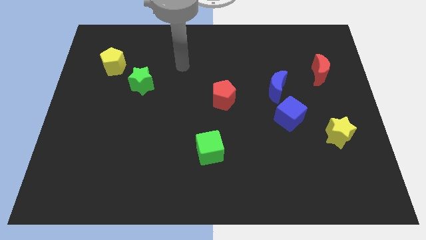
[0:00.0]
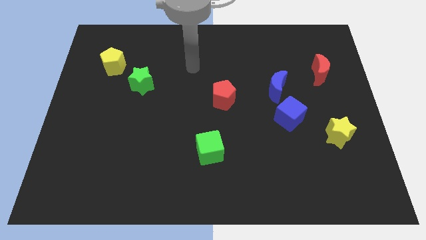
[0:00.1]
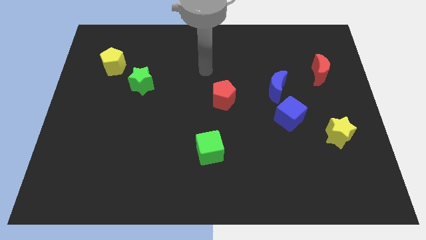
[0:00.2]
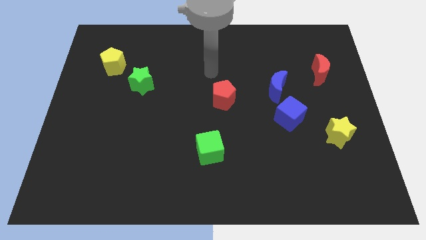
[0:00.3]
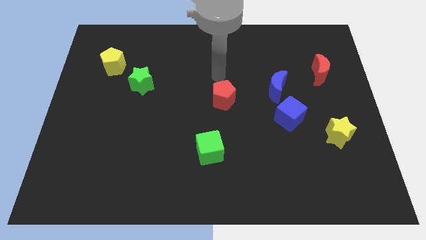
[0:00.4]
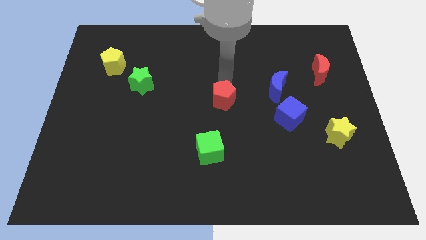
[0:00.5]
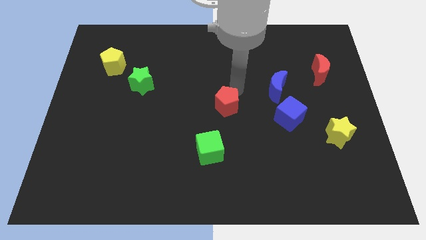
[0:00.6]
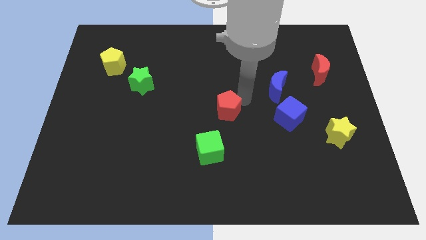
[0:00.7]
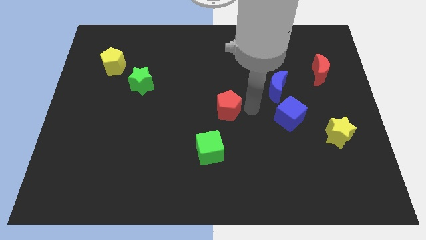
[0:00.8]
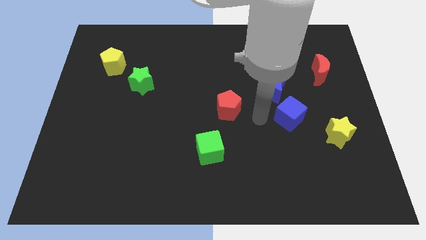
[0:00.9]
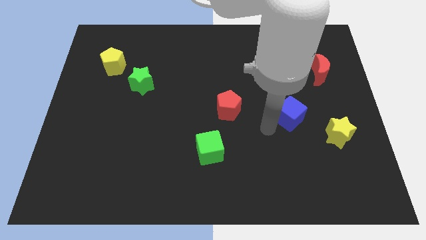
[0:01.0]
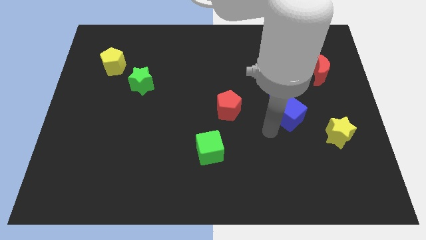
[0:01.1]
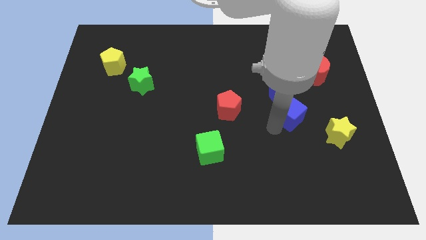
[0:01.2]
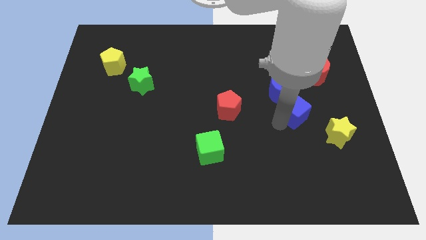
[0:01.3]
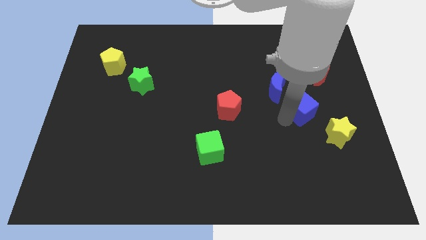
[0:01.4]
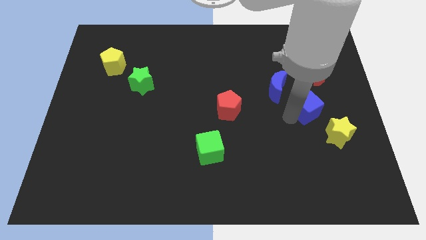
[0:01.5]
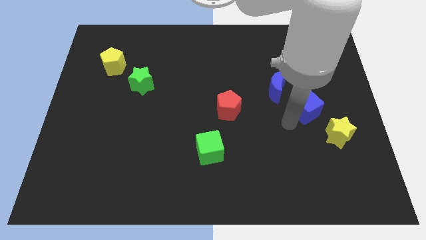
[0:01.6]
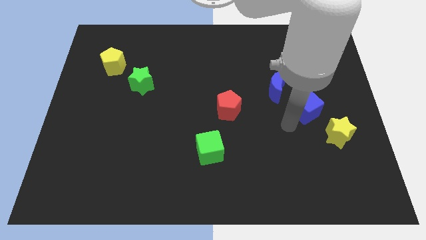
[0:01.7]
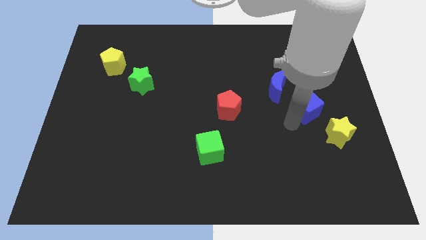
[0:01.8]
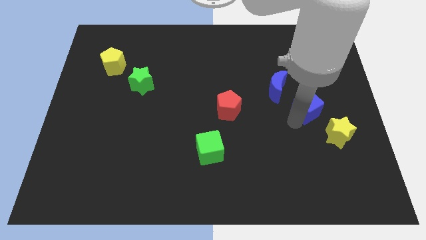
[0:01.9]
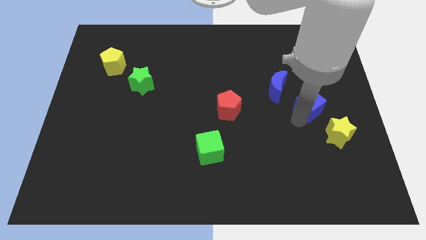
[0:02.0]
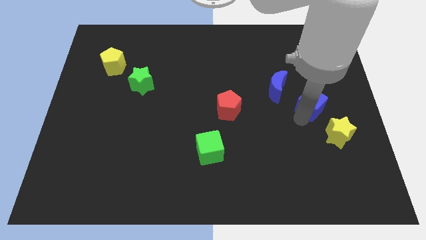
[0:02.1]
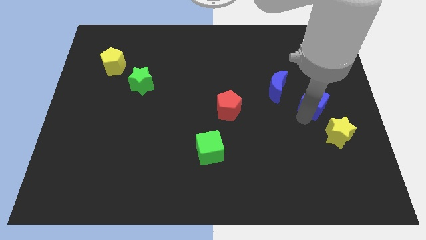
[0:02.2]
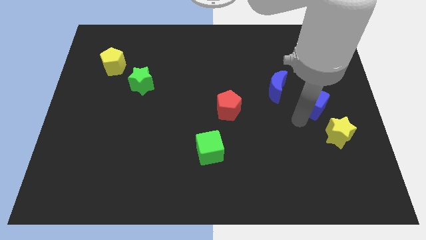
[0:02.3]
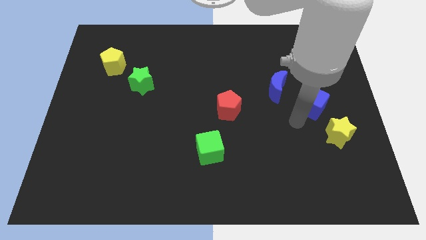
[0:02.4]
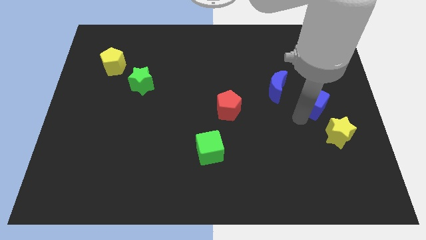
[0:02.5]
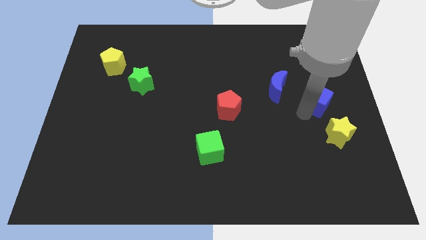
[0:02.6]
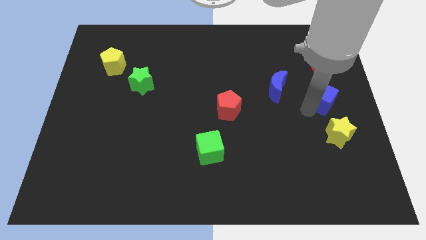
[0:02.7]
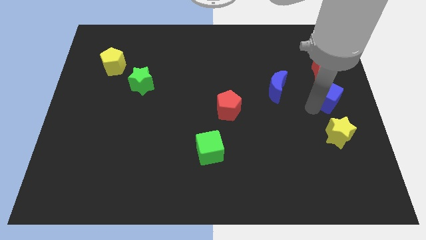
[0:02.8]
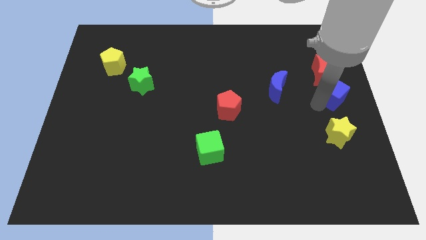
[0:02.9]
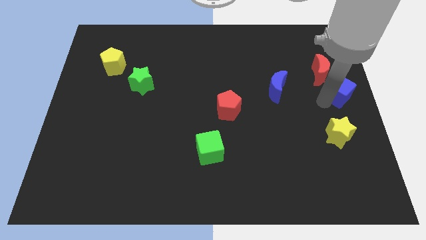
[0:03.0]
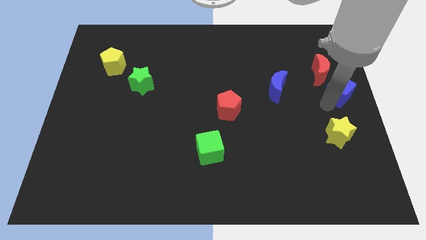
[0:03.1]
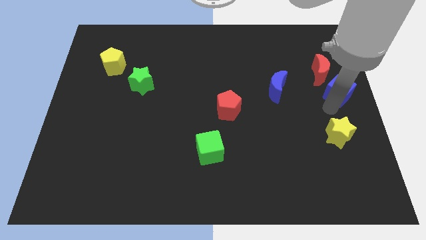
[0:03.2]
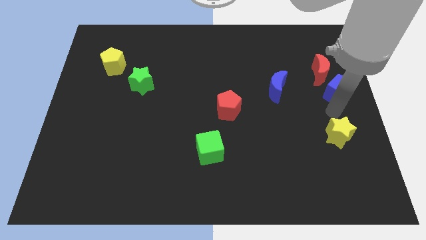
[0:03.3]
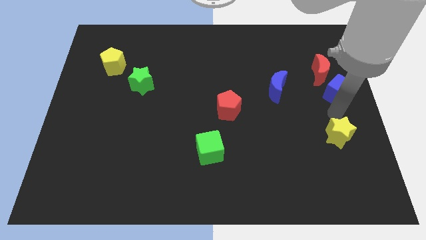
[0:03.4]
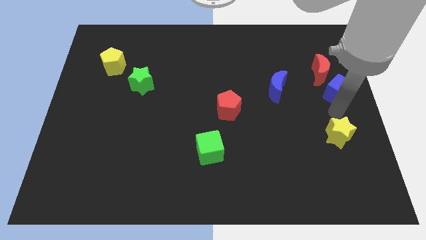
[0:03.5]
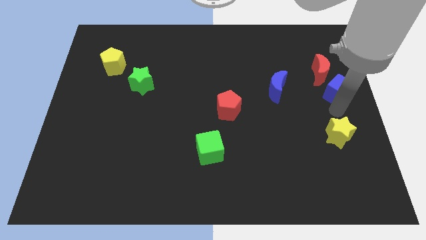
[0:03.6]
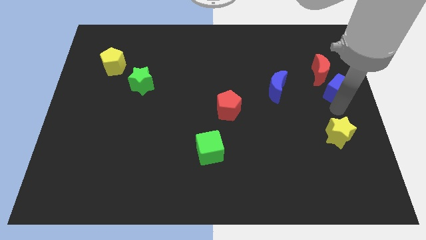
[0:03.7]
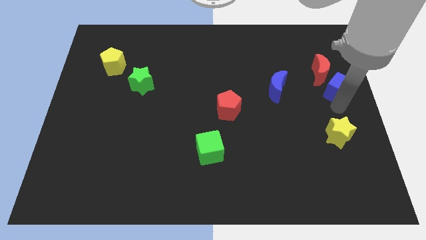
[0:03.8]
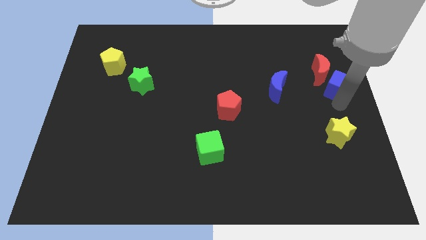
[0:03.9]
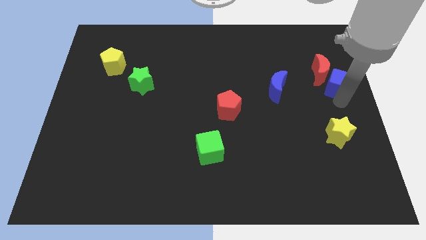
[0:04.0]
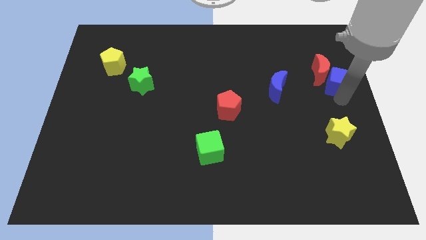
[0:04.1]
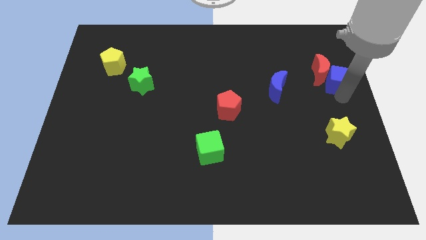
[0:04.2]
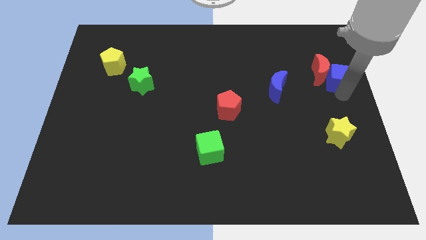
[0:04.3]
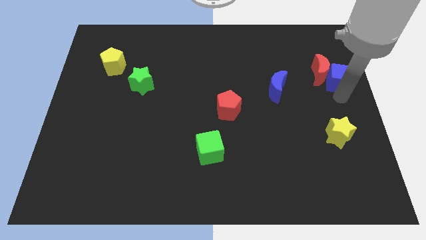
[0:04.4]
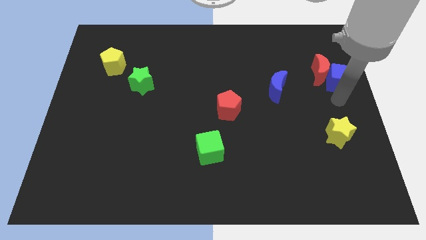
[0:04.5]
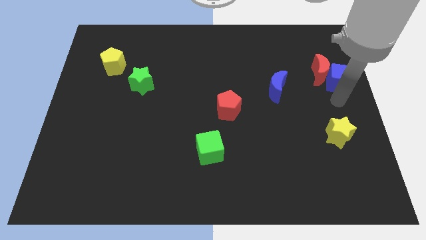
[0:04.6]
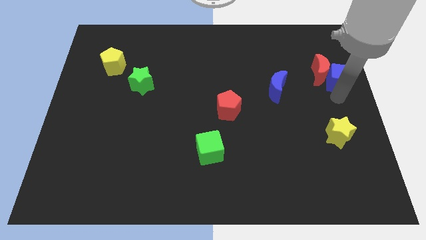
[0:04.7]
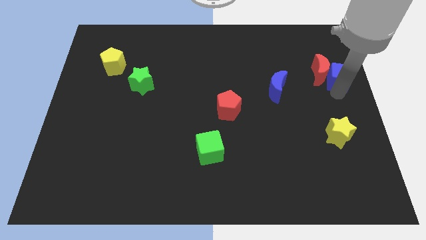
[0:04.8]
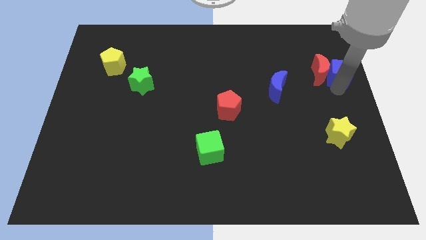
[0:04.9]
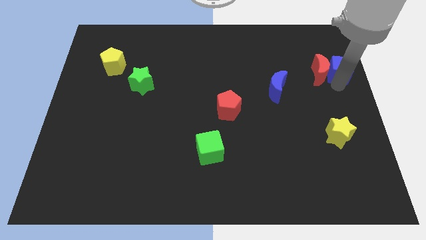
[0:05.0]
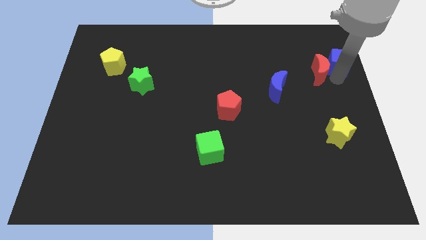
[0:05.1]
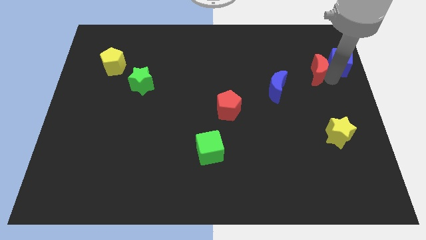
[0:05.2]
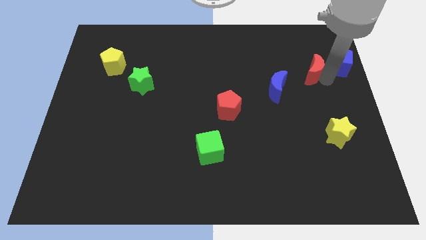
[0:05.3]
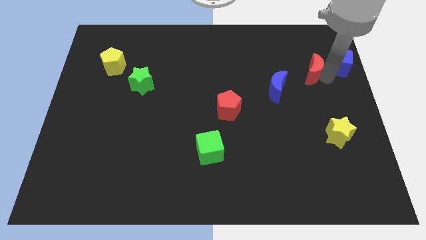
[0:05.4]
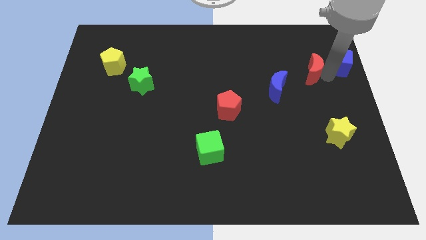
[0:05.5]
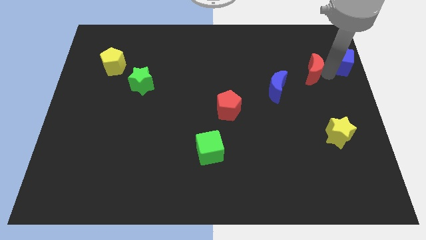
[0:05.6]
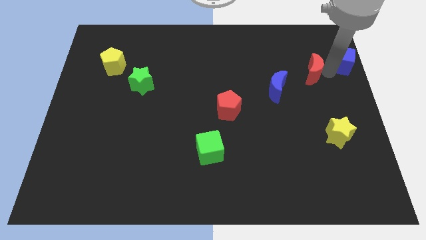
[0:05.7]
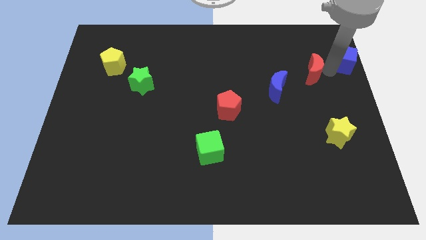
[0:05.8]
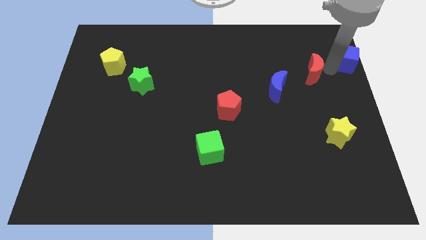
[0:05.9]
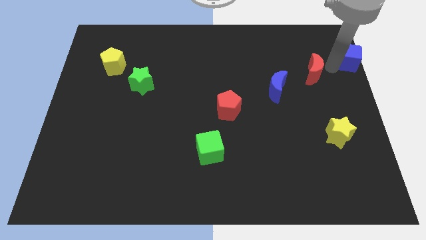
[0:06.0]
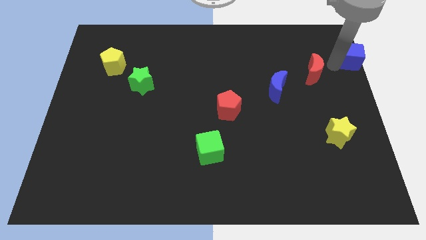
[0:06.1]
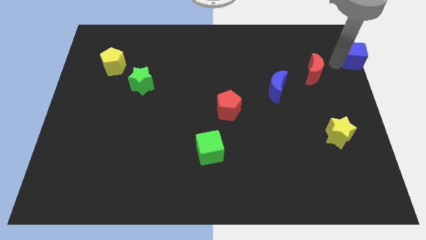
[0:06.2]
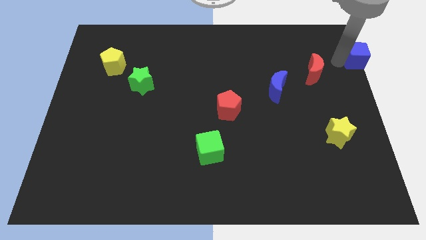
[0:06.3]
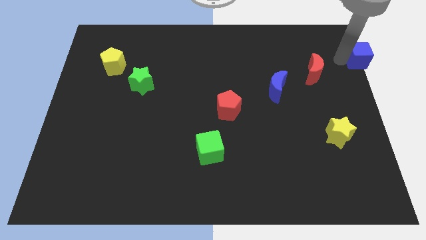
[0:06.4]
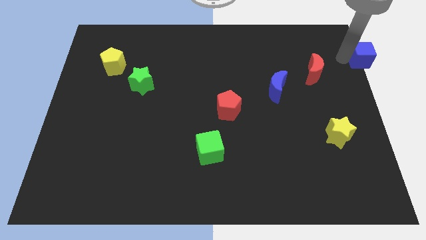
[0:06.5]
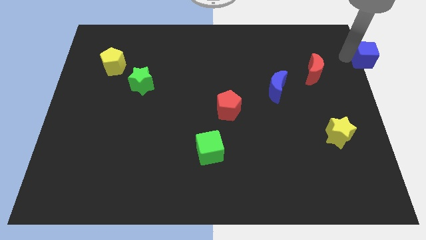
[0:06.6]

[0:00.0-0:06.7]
move the blue cube to the upper right corner
